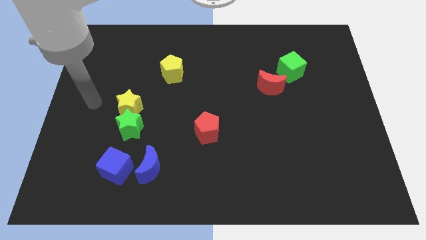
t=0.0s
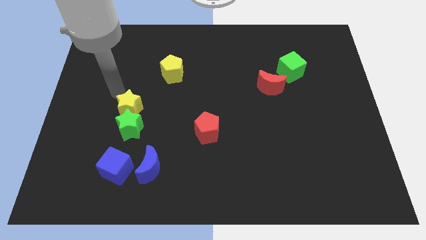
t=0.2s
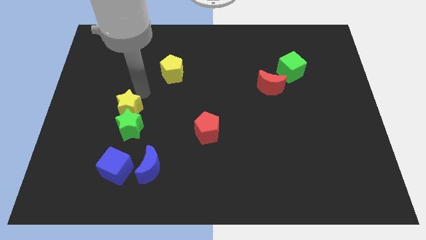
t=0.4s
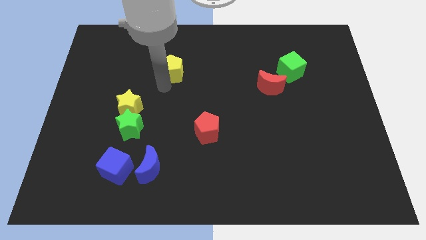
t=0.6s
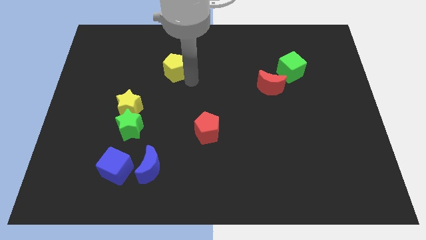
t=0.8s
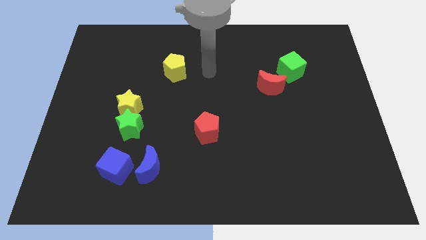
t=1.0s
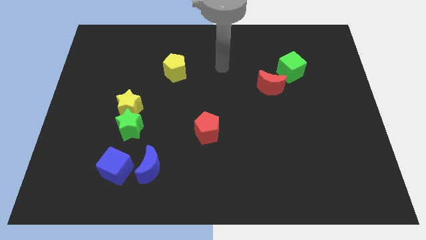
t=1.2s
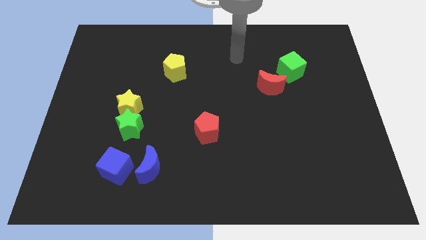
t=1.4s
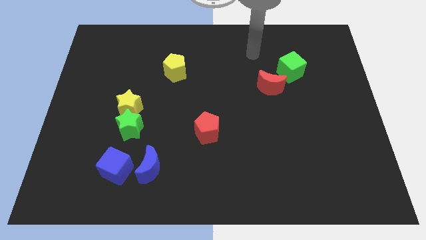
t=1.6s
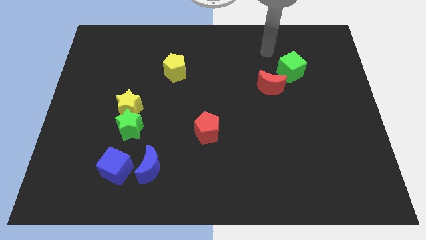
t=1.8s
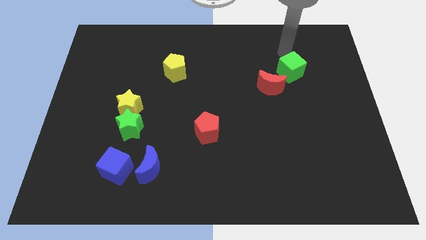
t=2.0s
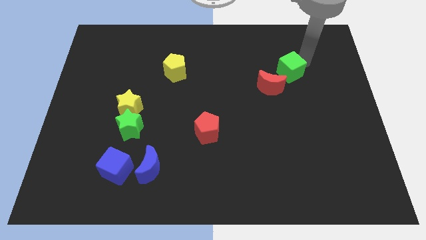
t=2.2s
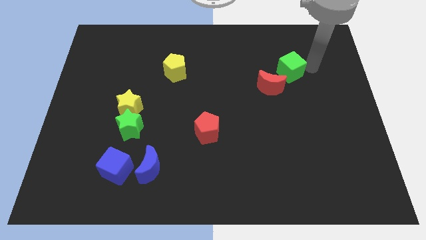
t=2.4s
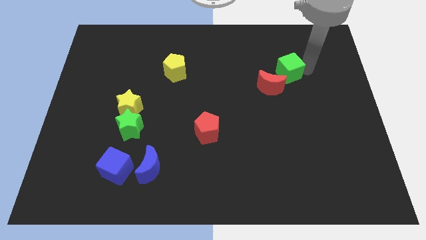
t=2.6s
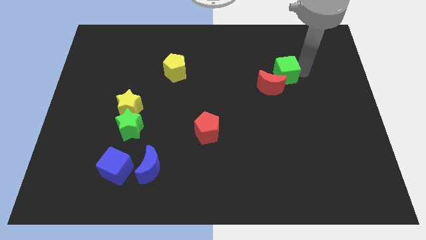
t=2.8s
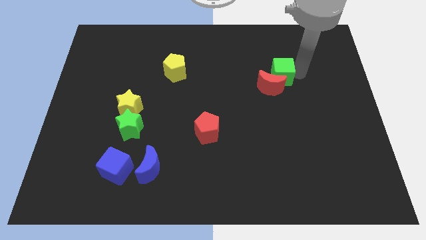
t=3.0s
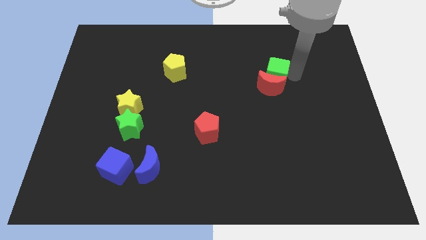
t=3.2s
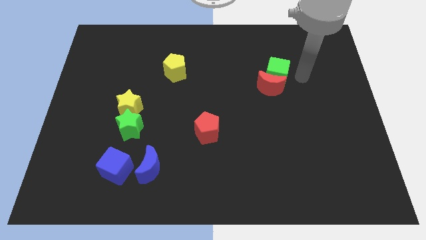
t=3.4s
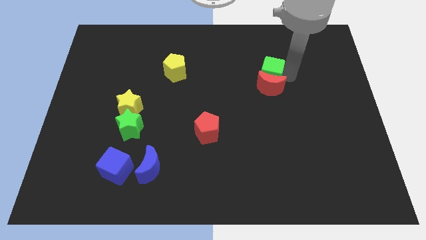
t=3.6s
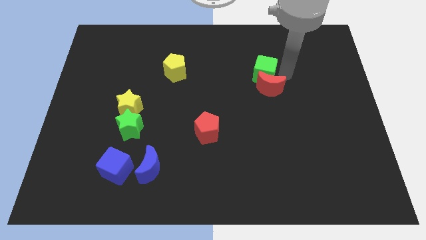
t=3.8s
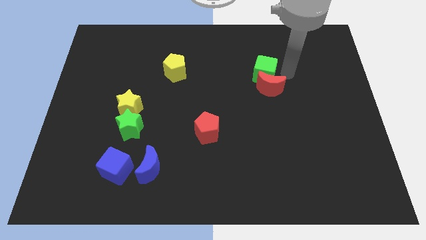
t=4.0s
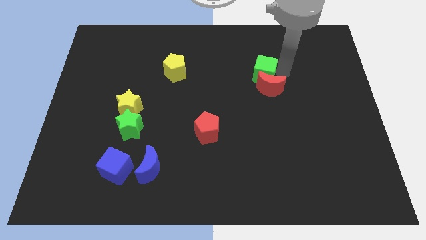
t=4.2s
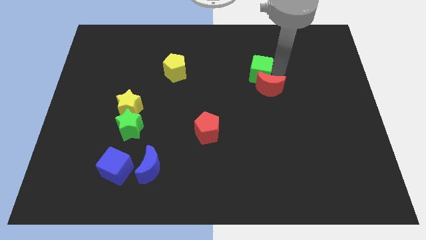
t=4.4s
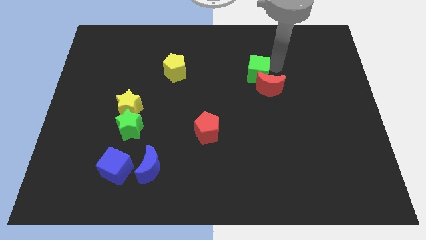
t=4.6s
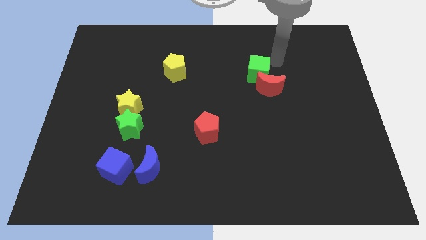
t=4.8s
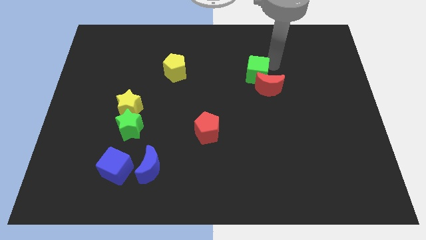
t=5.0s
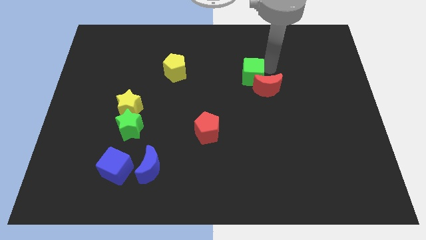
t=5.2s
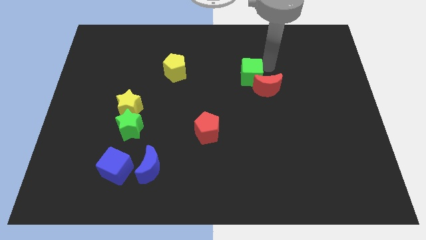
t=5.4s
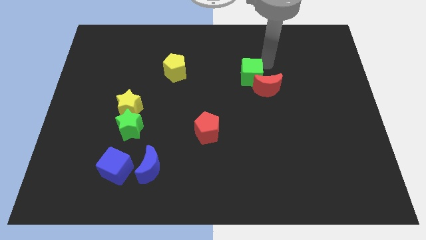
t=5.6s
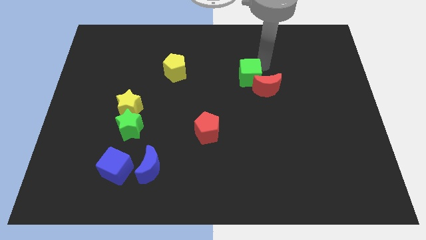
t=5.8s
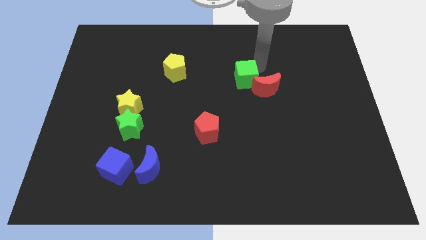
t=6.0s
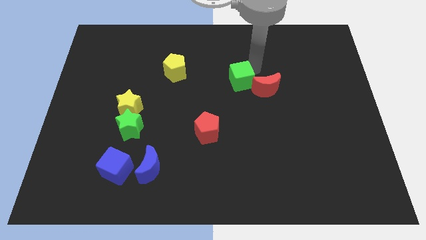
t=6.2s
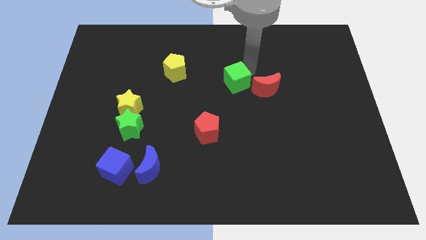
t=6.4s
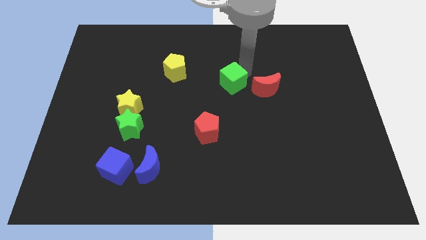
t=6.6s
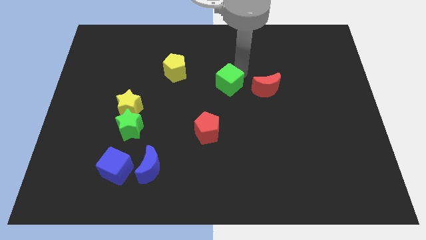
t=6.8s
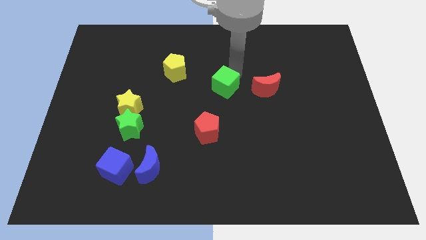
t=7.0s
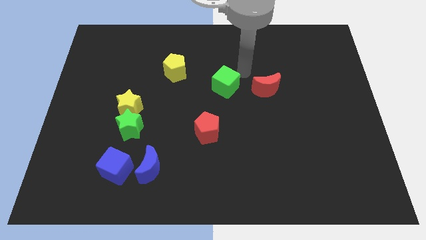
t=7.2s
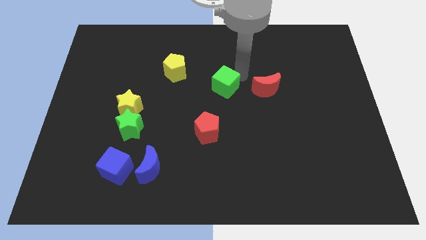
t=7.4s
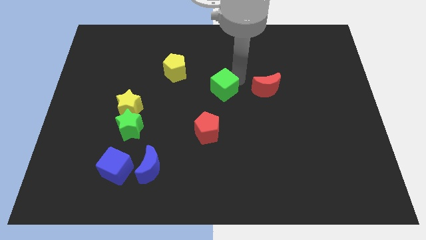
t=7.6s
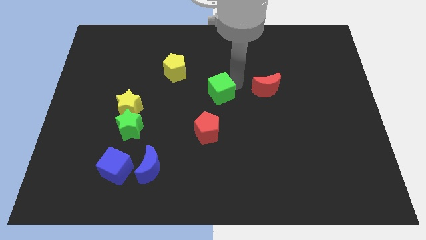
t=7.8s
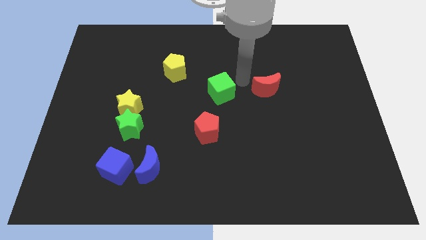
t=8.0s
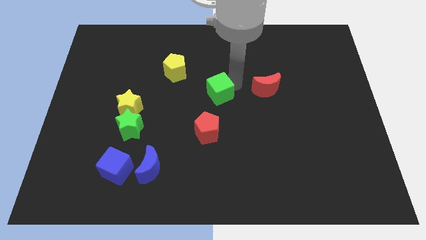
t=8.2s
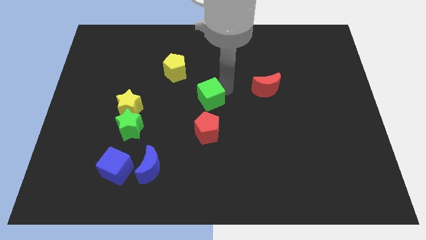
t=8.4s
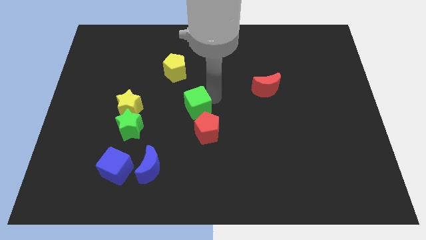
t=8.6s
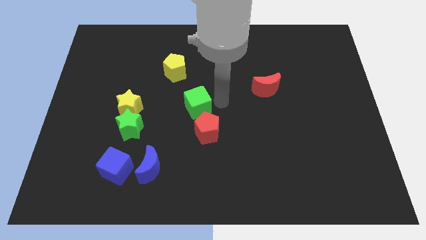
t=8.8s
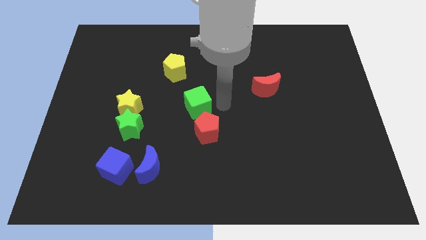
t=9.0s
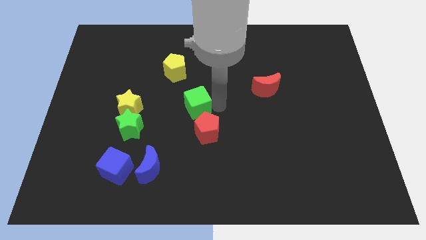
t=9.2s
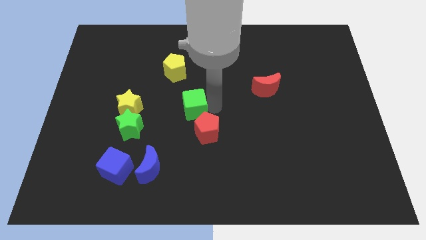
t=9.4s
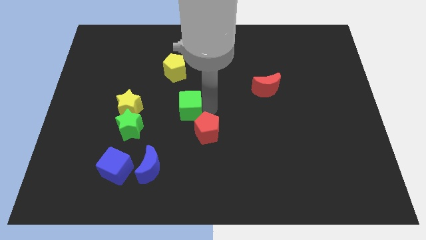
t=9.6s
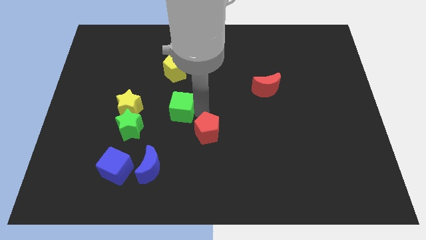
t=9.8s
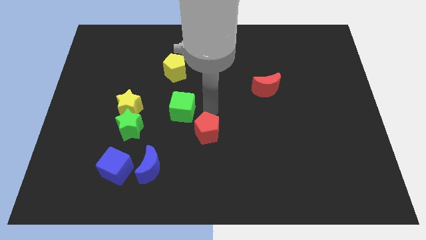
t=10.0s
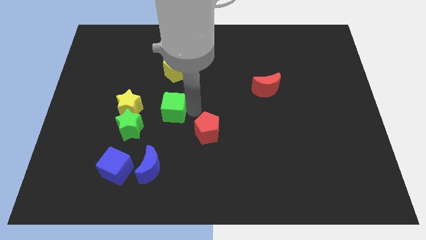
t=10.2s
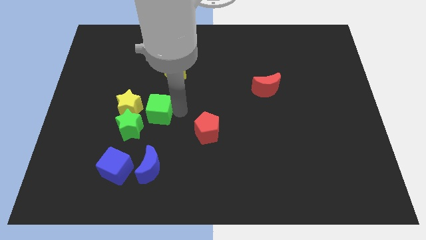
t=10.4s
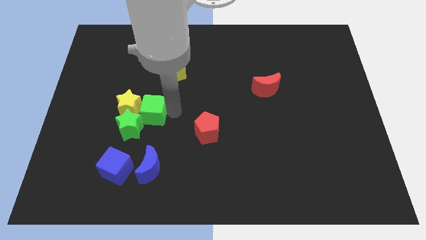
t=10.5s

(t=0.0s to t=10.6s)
put the green cube to the yellow star

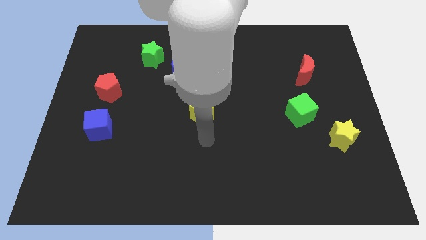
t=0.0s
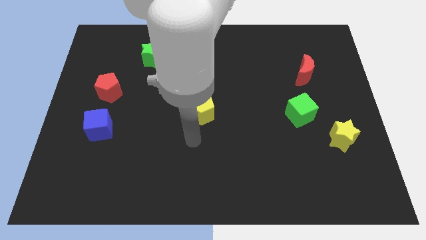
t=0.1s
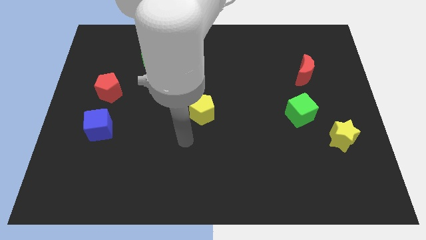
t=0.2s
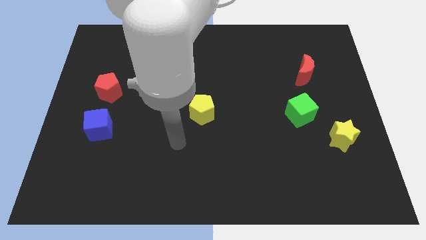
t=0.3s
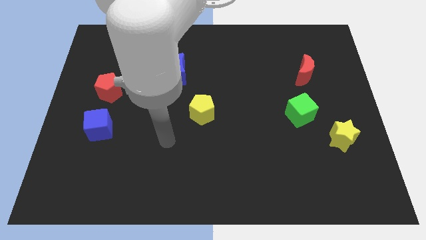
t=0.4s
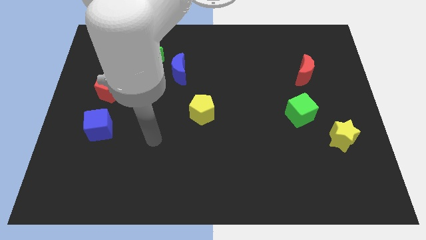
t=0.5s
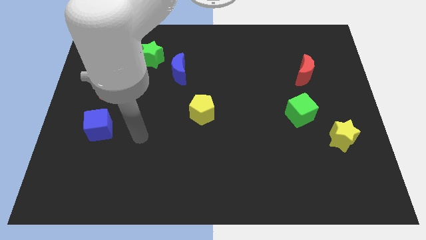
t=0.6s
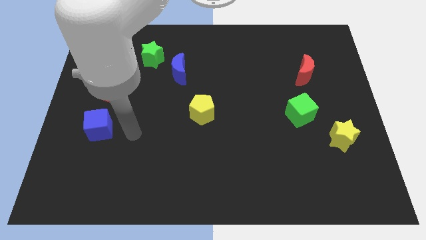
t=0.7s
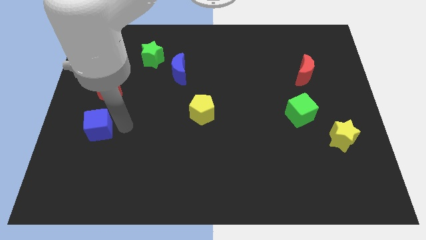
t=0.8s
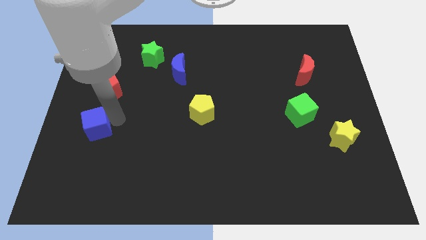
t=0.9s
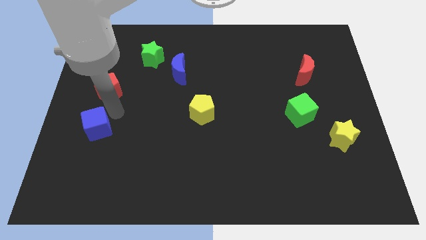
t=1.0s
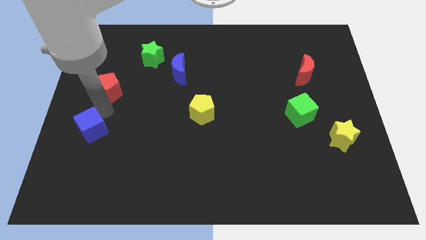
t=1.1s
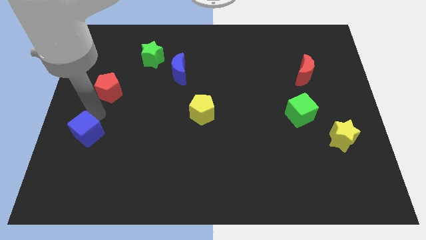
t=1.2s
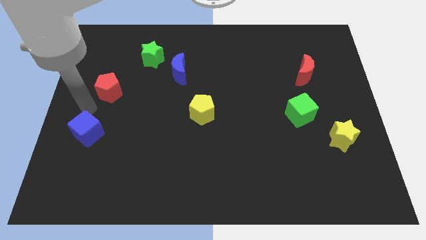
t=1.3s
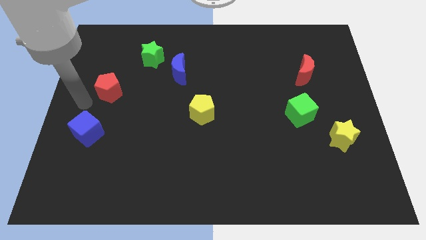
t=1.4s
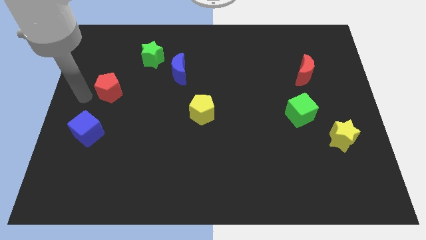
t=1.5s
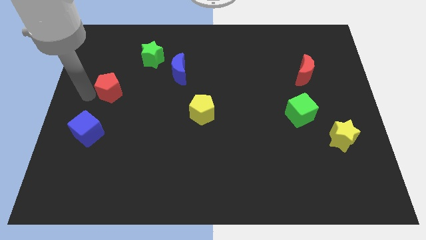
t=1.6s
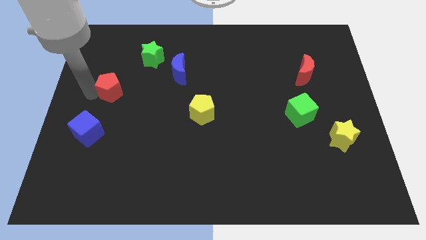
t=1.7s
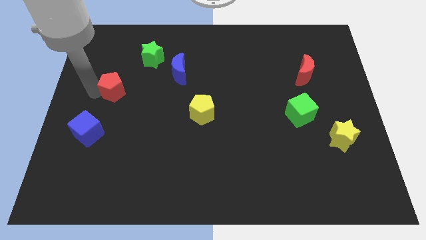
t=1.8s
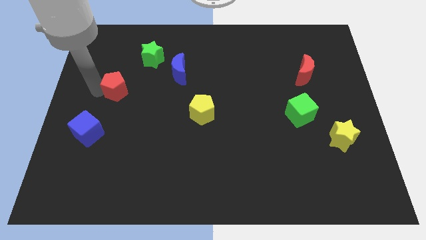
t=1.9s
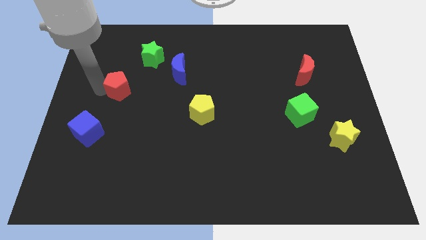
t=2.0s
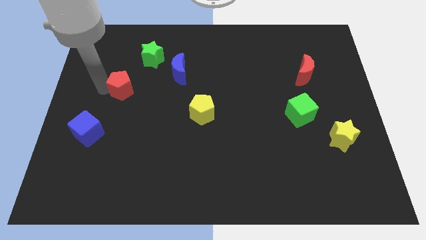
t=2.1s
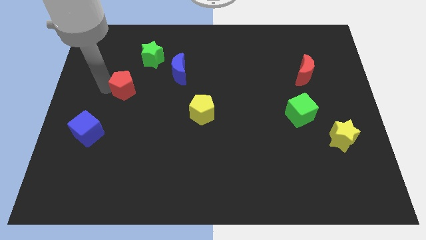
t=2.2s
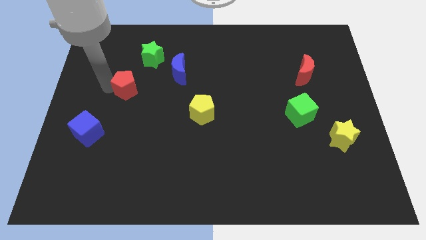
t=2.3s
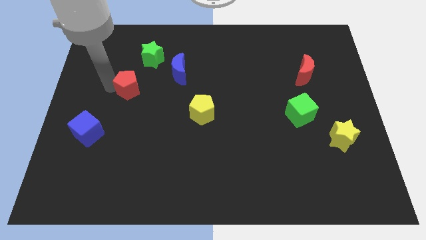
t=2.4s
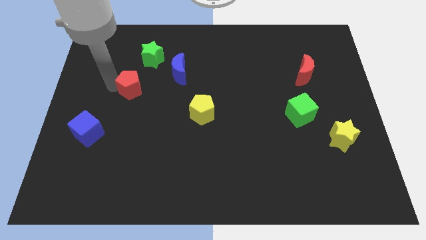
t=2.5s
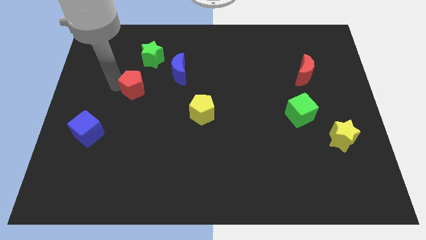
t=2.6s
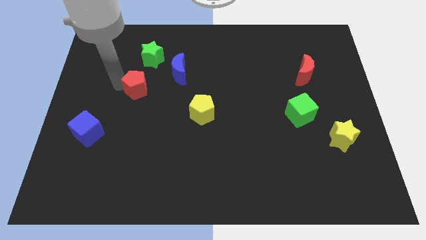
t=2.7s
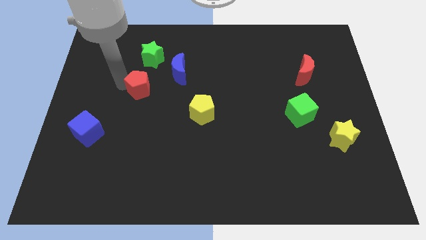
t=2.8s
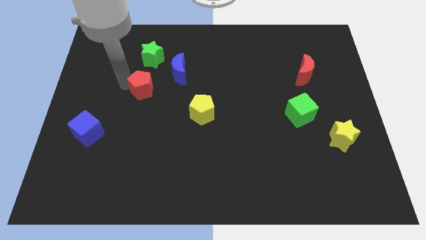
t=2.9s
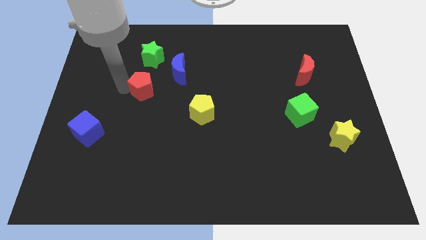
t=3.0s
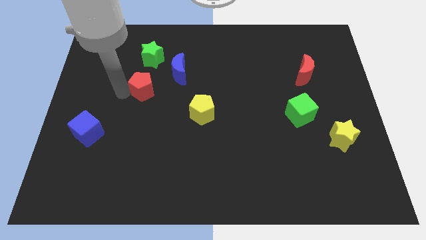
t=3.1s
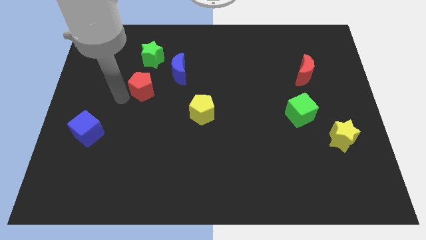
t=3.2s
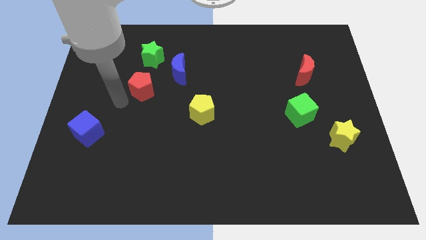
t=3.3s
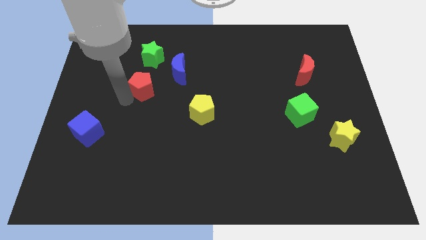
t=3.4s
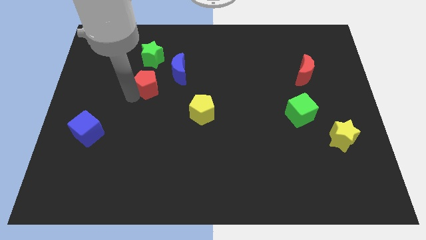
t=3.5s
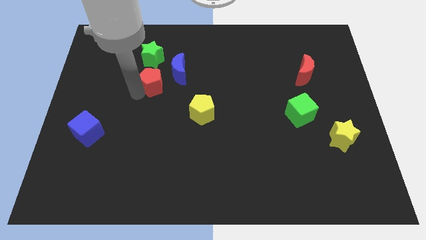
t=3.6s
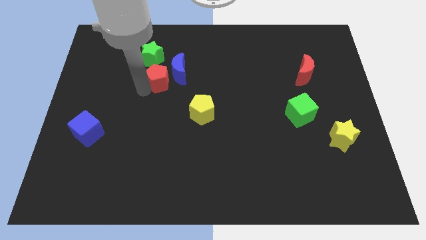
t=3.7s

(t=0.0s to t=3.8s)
move the red pentagon towards the blue moon
